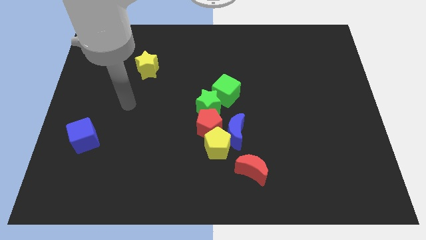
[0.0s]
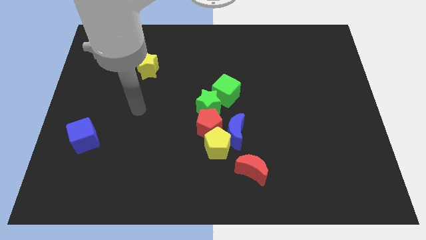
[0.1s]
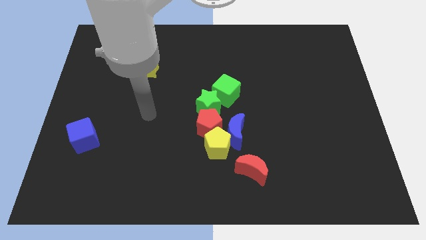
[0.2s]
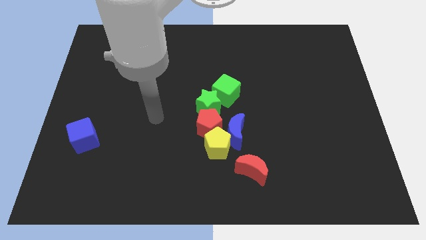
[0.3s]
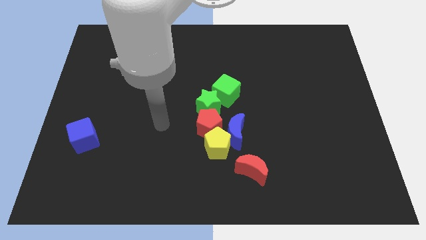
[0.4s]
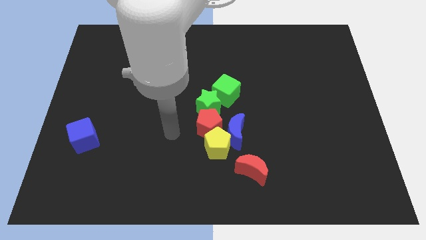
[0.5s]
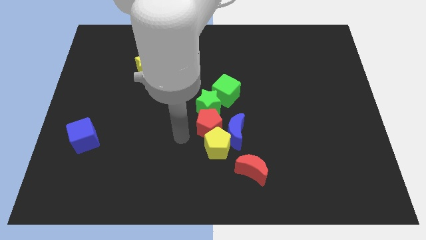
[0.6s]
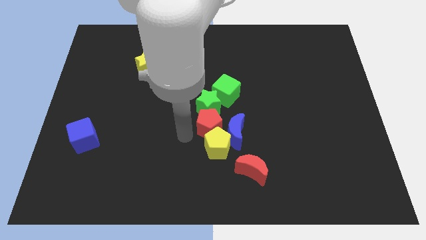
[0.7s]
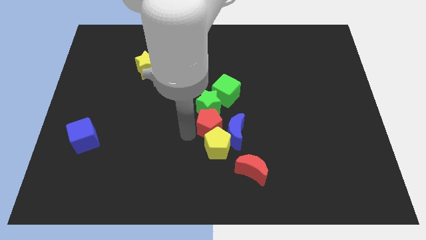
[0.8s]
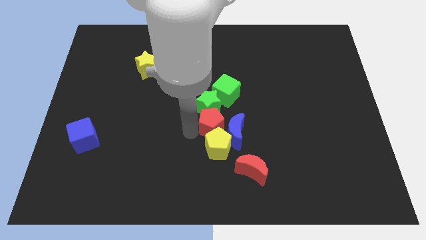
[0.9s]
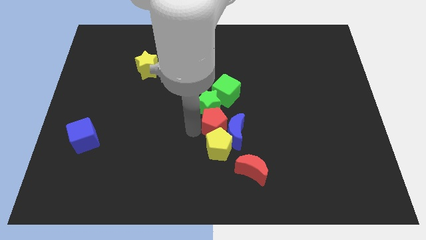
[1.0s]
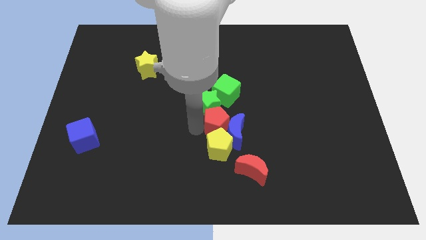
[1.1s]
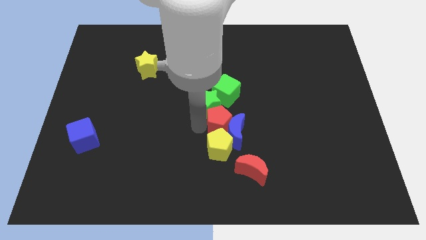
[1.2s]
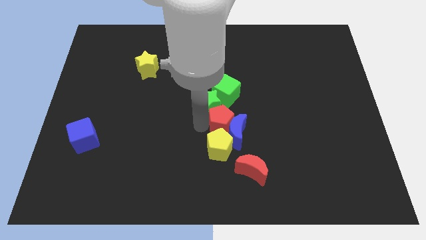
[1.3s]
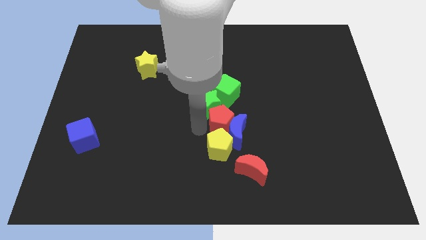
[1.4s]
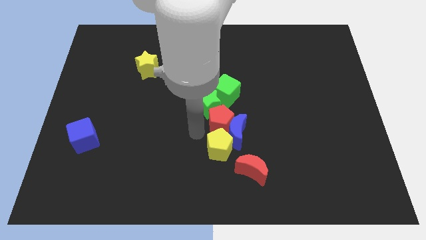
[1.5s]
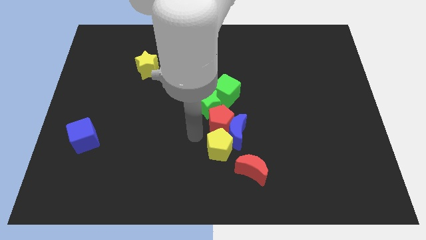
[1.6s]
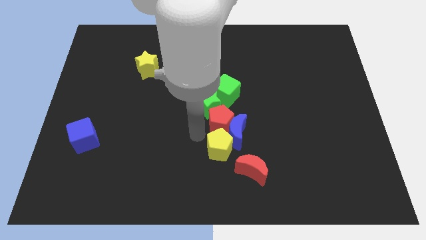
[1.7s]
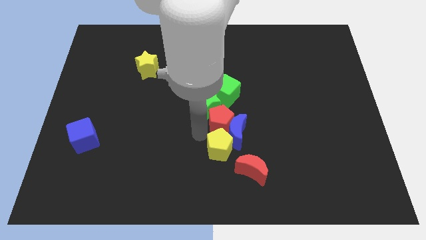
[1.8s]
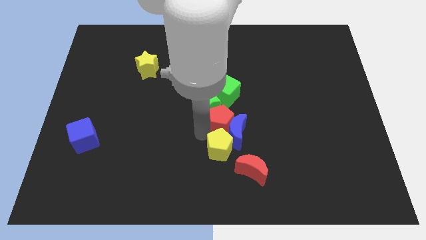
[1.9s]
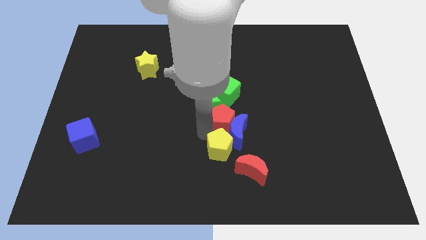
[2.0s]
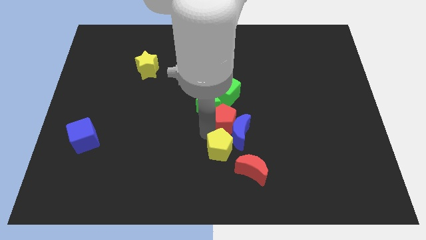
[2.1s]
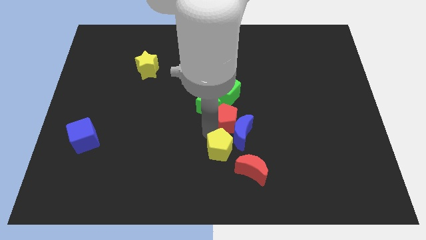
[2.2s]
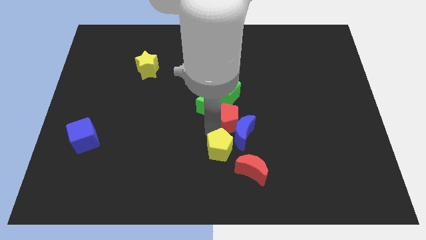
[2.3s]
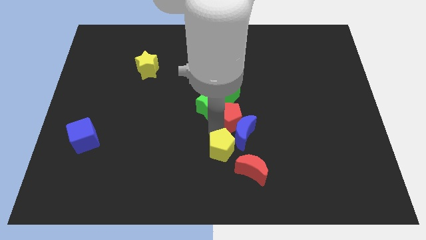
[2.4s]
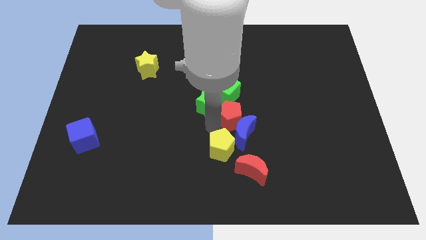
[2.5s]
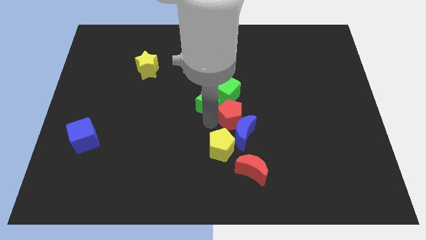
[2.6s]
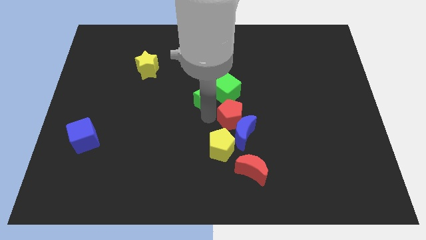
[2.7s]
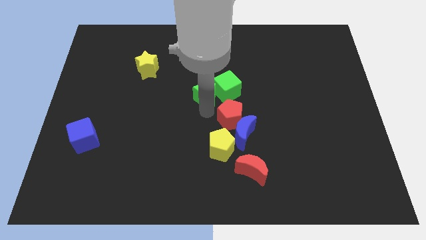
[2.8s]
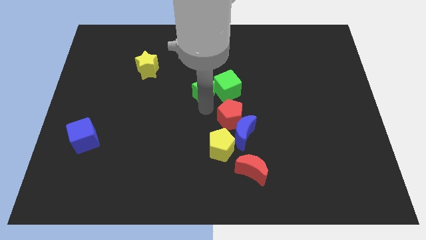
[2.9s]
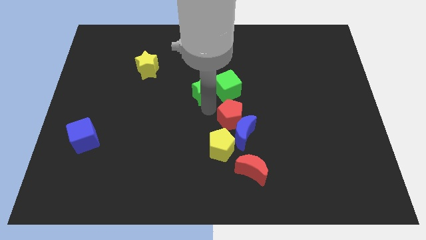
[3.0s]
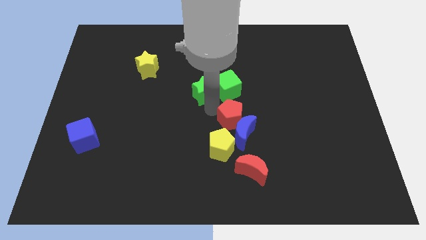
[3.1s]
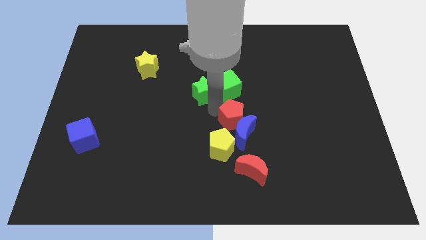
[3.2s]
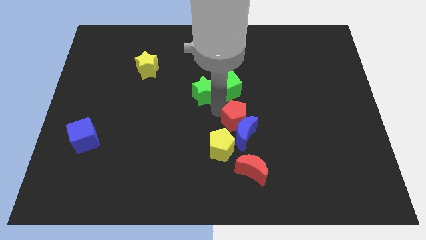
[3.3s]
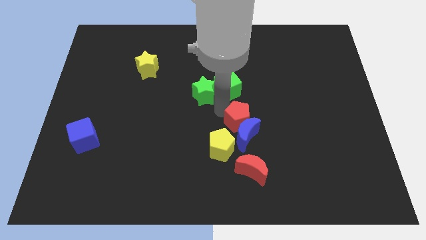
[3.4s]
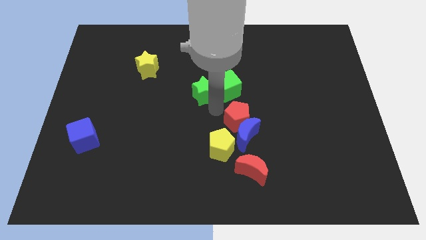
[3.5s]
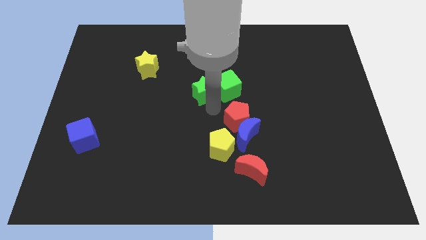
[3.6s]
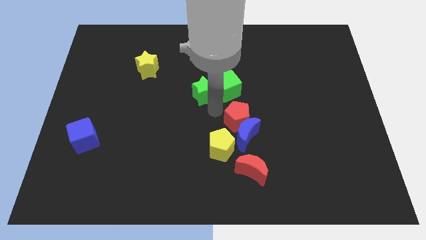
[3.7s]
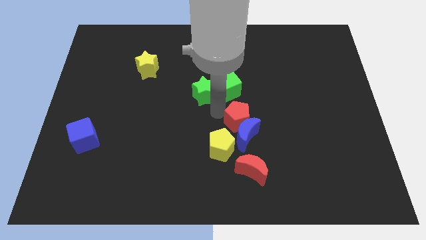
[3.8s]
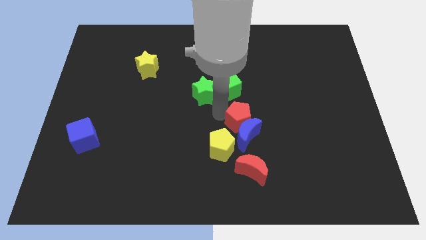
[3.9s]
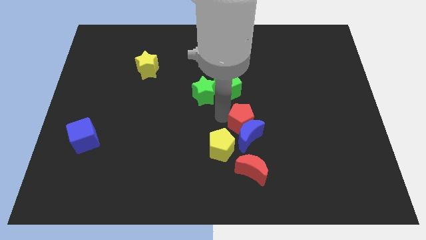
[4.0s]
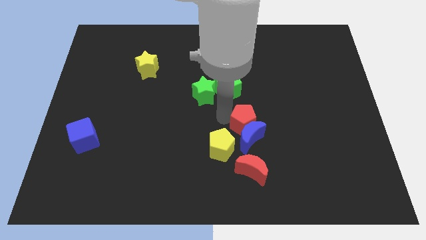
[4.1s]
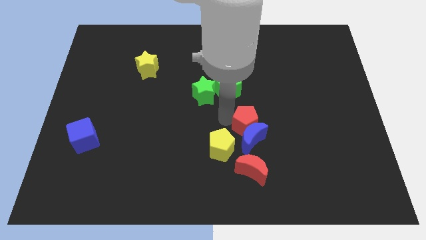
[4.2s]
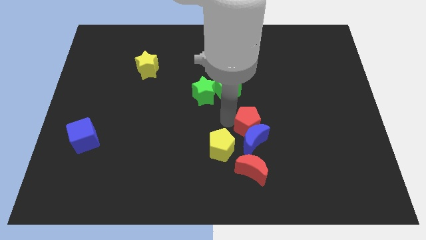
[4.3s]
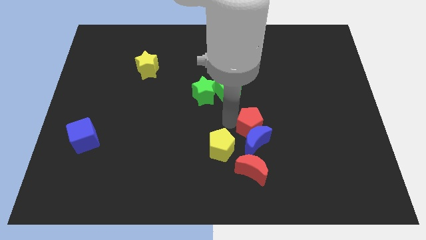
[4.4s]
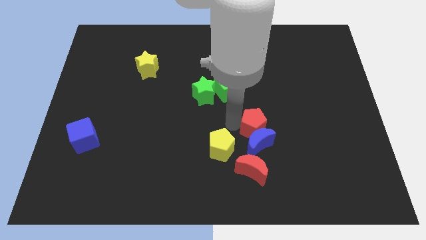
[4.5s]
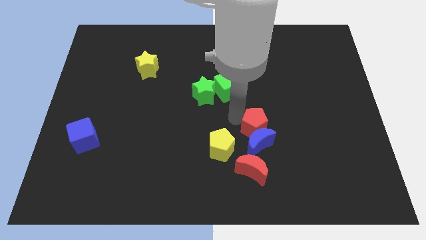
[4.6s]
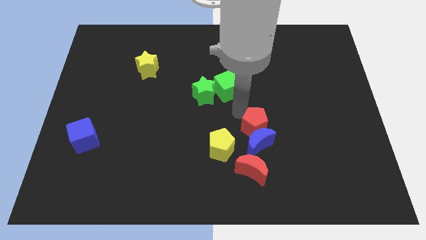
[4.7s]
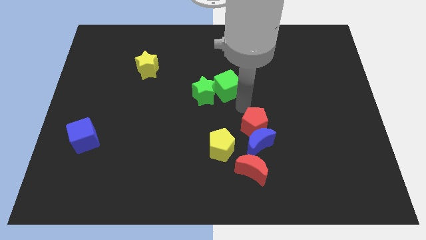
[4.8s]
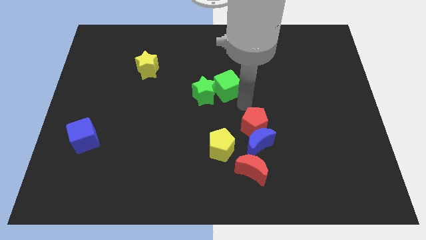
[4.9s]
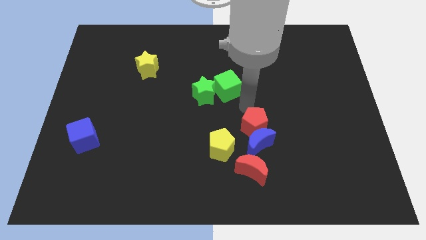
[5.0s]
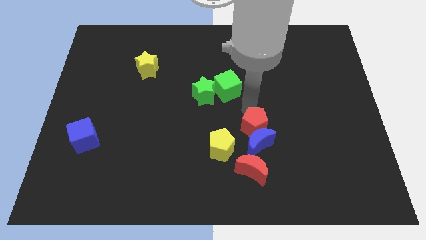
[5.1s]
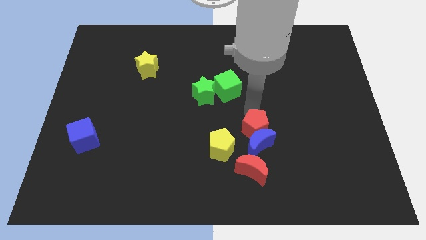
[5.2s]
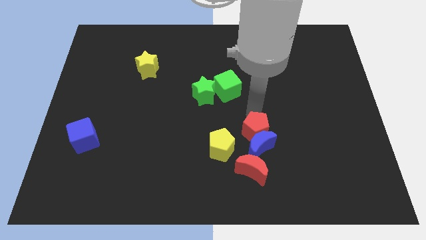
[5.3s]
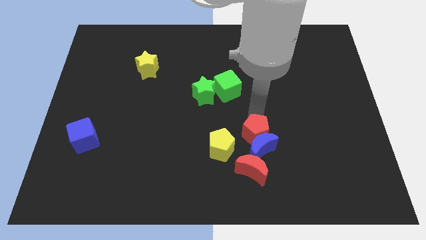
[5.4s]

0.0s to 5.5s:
push the red pentagon a little bit down and right diagonally

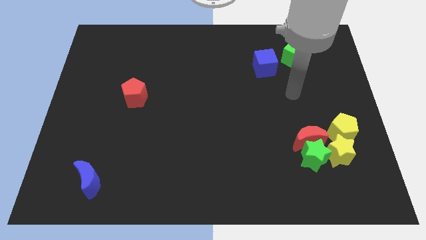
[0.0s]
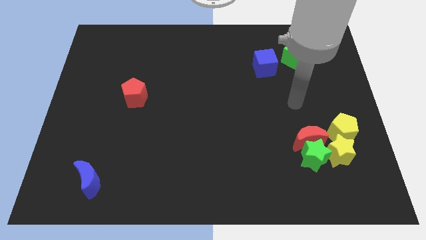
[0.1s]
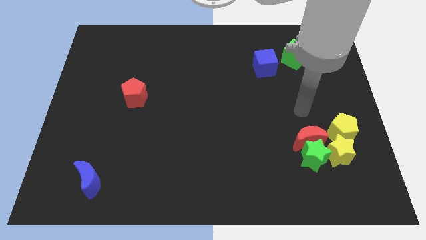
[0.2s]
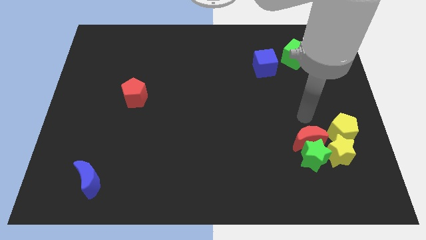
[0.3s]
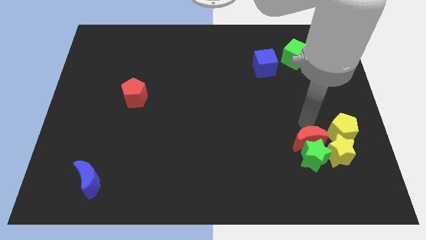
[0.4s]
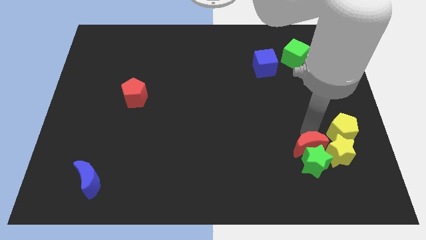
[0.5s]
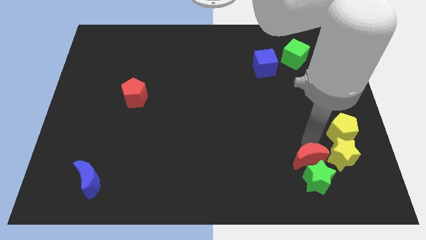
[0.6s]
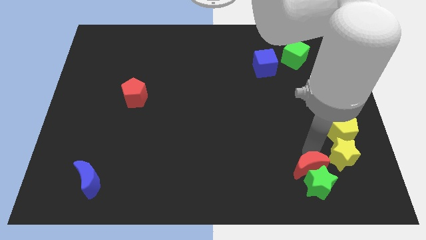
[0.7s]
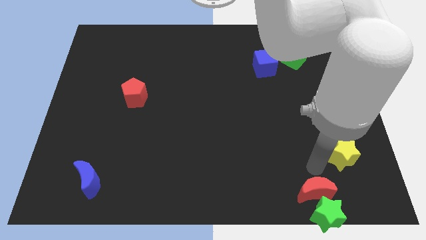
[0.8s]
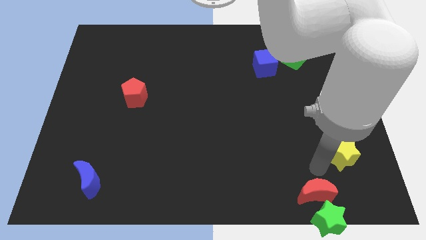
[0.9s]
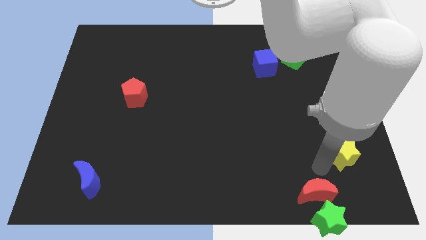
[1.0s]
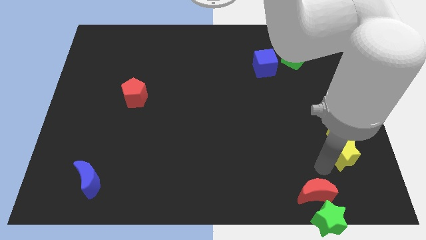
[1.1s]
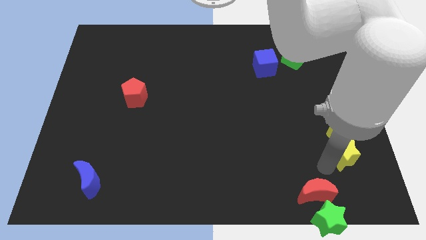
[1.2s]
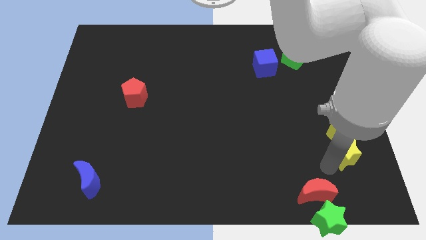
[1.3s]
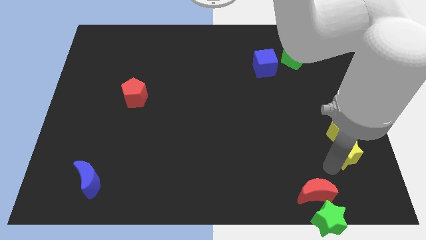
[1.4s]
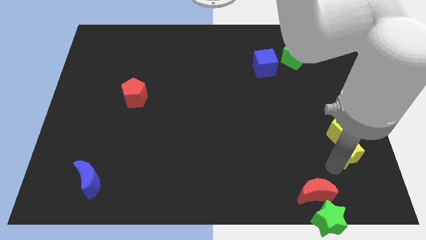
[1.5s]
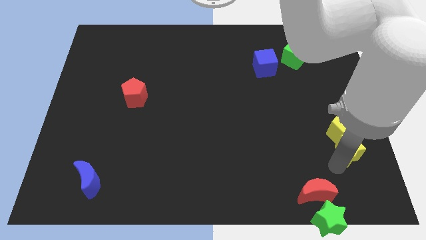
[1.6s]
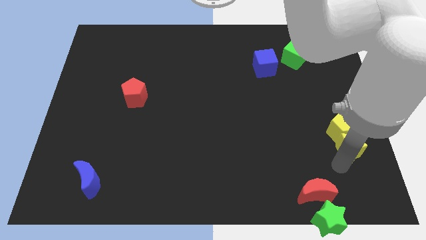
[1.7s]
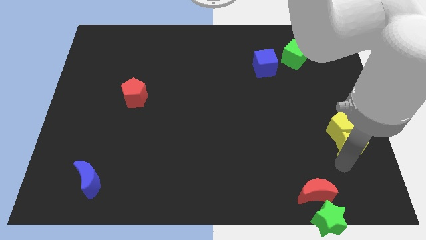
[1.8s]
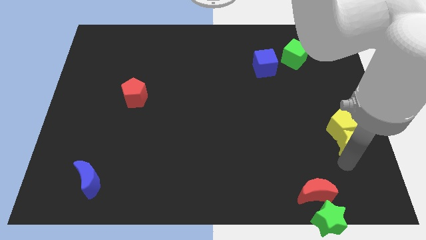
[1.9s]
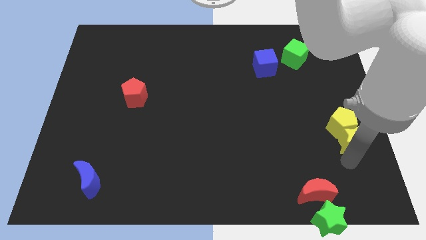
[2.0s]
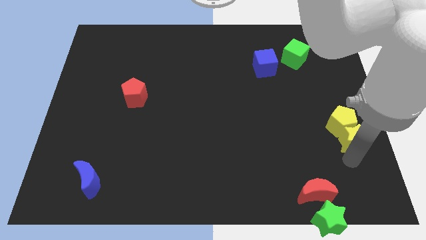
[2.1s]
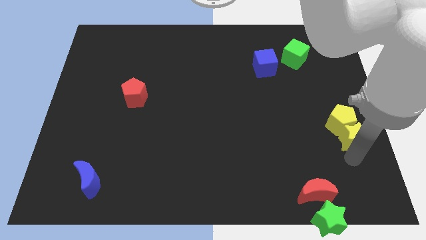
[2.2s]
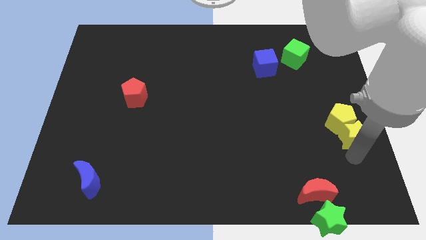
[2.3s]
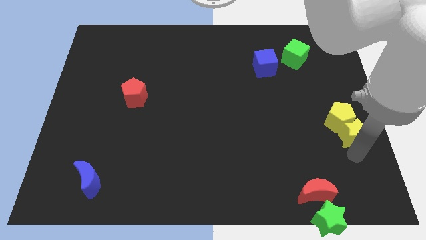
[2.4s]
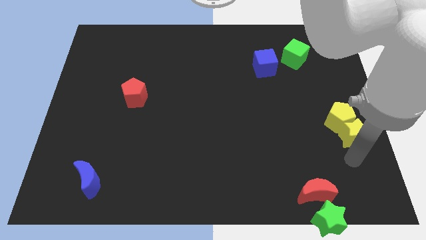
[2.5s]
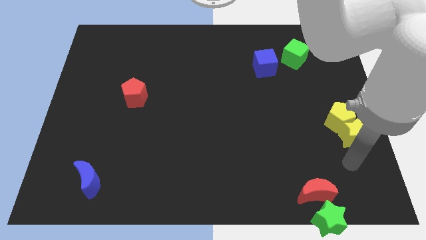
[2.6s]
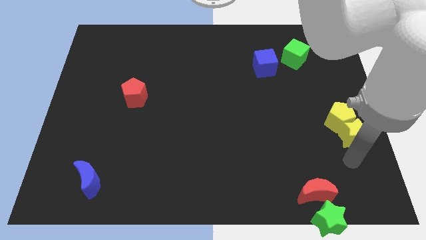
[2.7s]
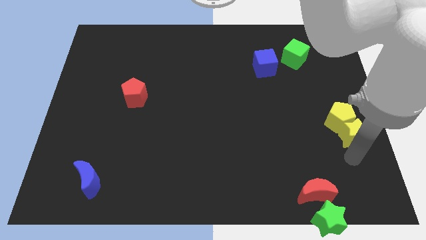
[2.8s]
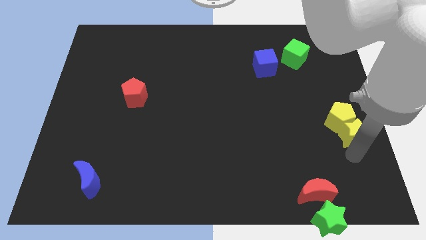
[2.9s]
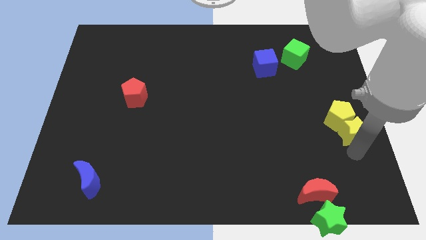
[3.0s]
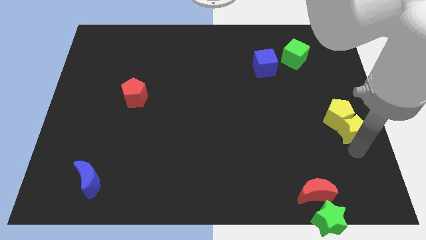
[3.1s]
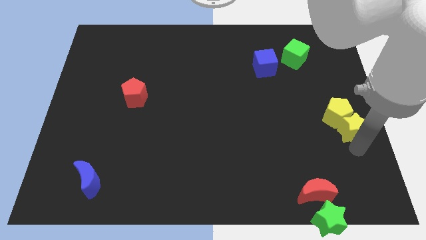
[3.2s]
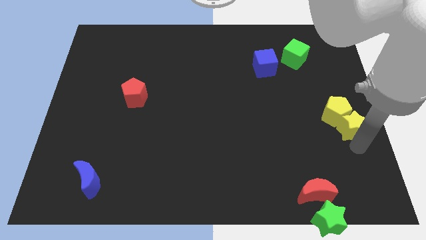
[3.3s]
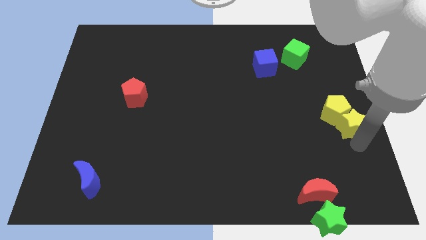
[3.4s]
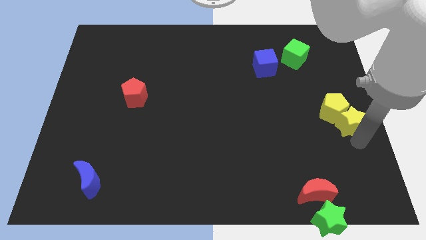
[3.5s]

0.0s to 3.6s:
slide the yellow star a little upwards
